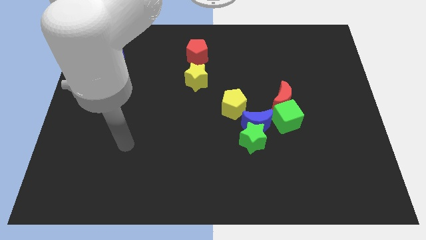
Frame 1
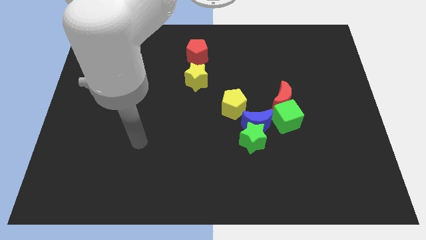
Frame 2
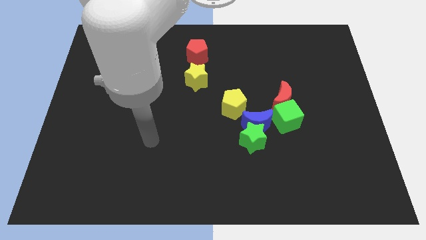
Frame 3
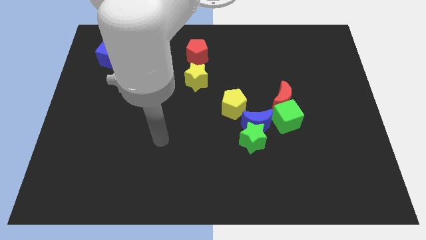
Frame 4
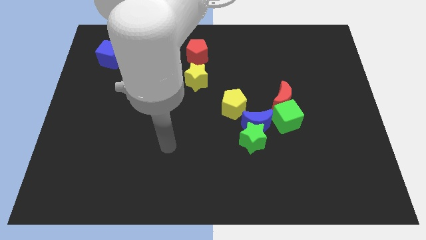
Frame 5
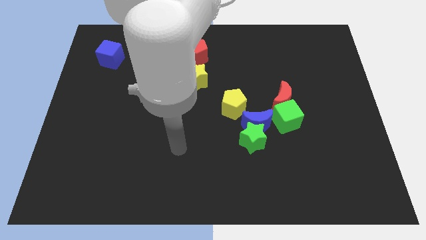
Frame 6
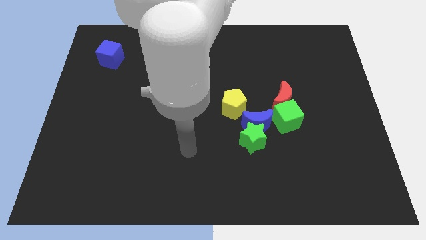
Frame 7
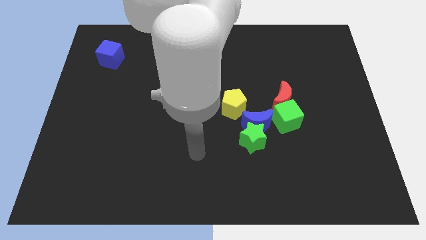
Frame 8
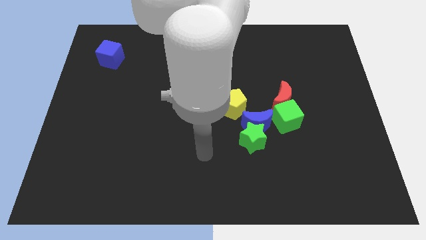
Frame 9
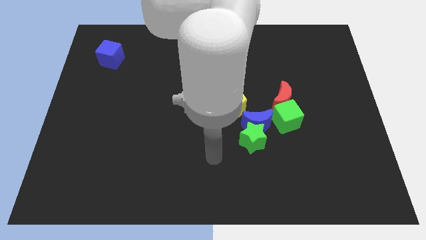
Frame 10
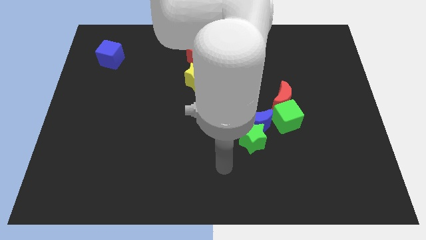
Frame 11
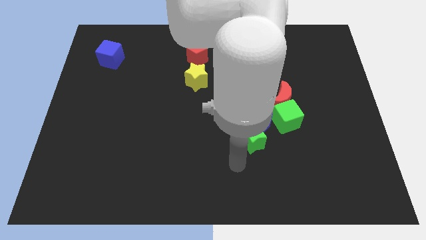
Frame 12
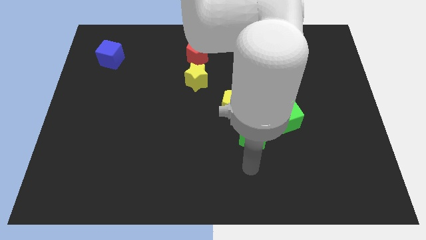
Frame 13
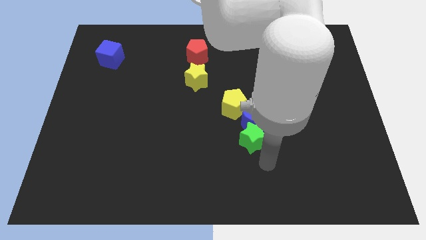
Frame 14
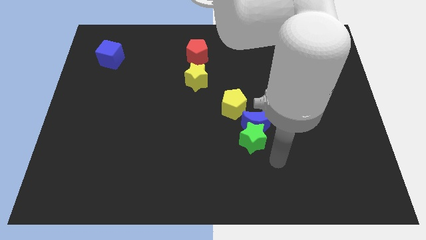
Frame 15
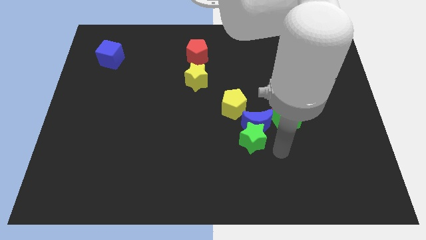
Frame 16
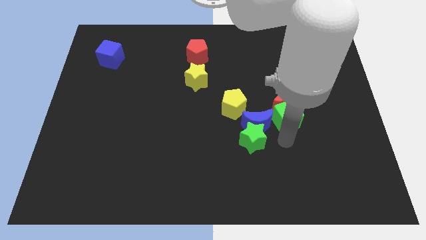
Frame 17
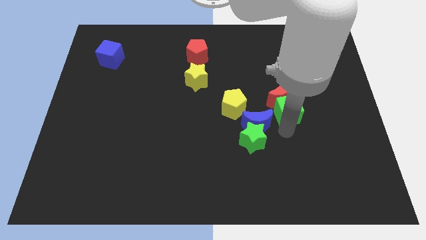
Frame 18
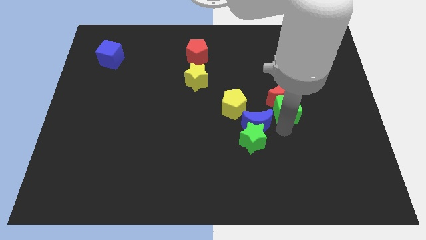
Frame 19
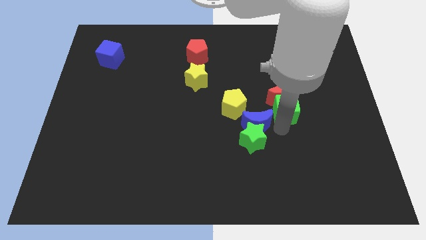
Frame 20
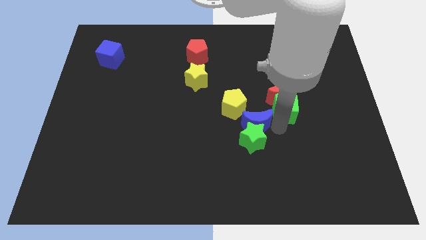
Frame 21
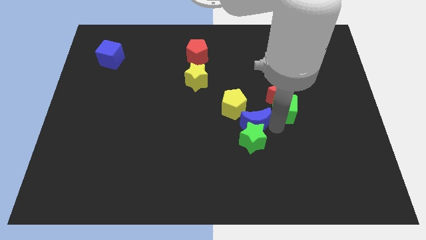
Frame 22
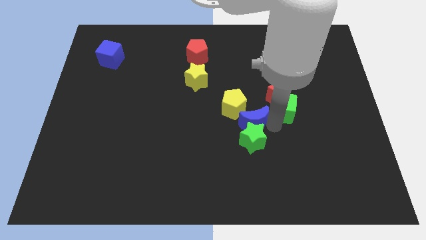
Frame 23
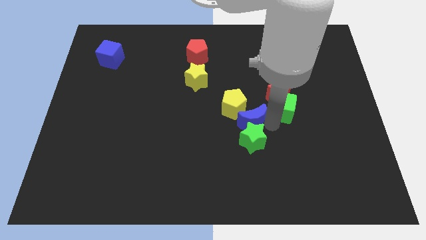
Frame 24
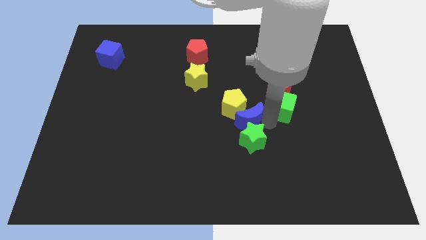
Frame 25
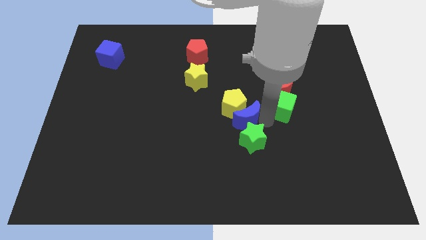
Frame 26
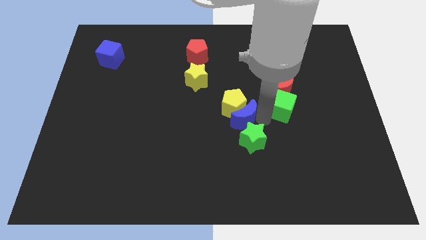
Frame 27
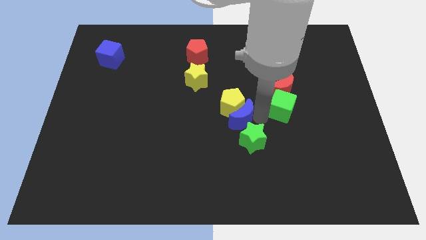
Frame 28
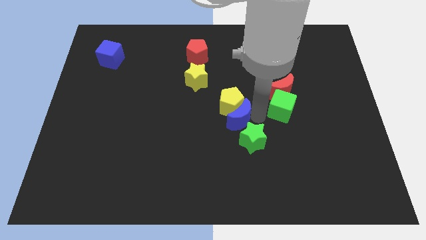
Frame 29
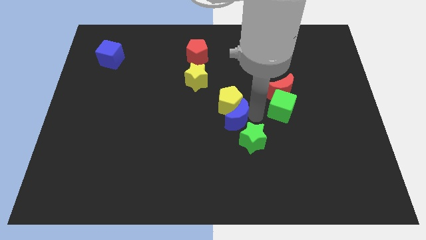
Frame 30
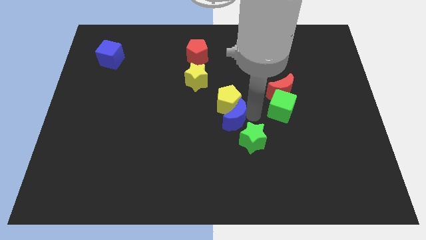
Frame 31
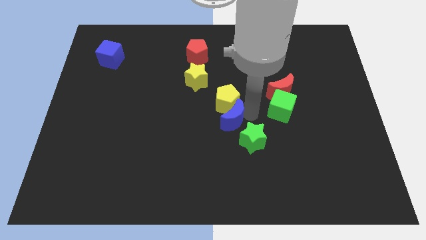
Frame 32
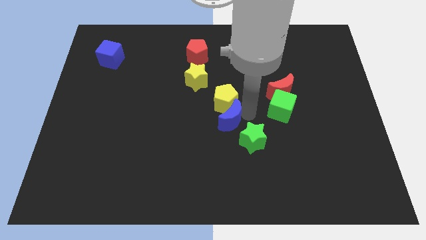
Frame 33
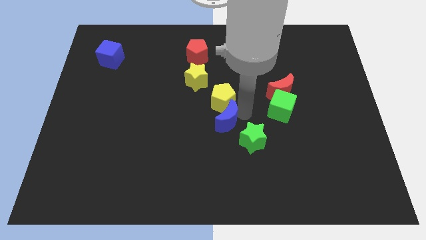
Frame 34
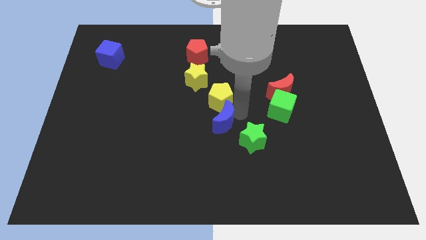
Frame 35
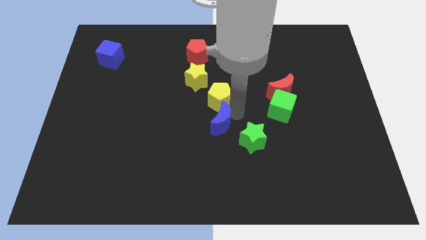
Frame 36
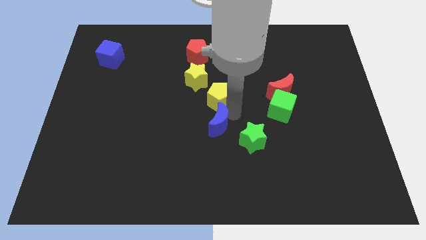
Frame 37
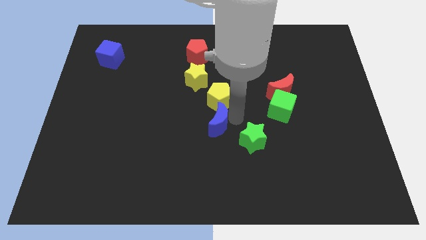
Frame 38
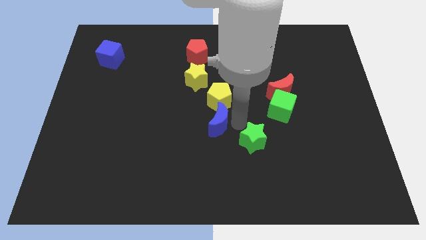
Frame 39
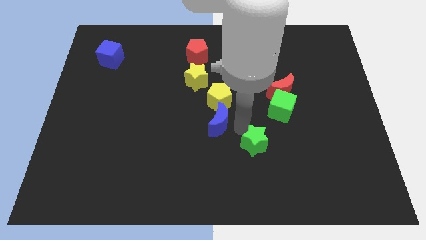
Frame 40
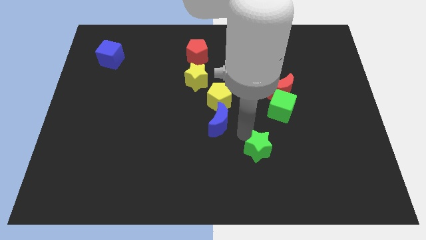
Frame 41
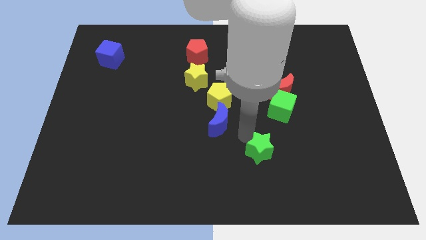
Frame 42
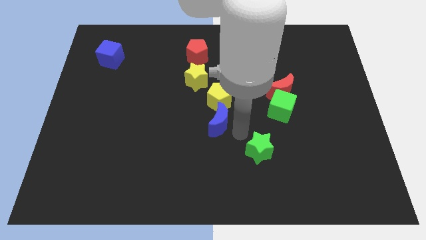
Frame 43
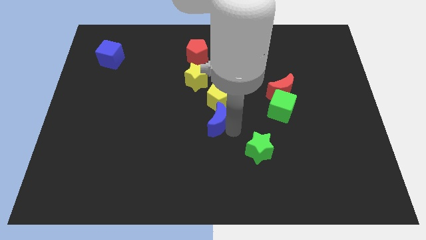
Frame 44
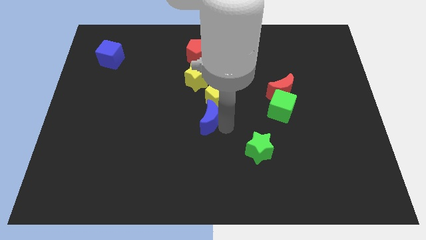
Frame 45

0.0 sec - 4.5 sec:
put the blue moon to the bottom of the yellow star

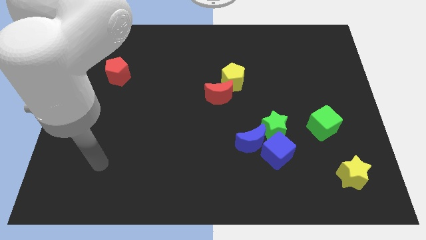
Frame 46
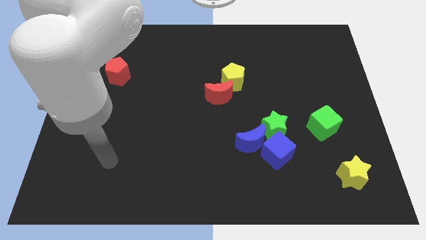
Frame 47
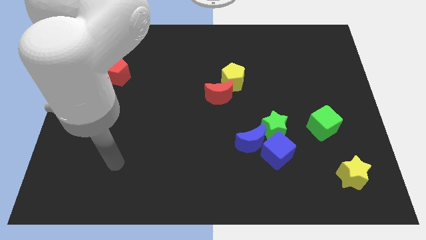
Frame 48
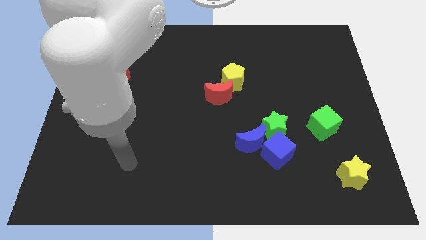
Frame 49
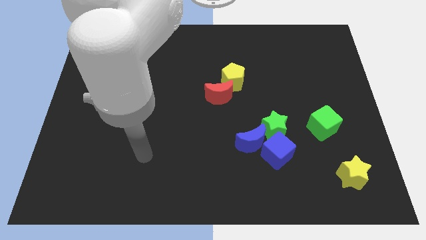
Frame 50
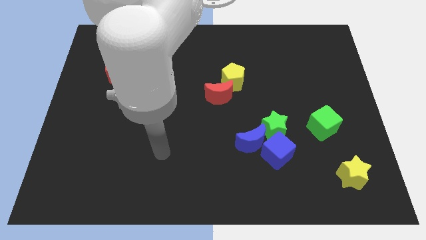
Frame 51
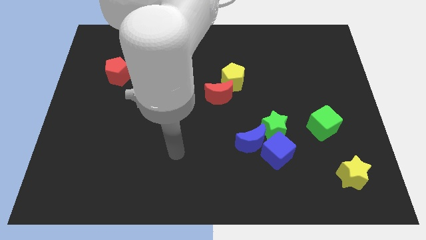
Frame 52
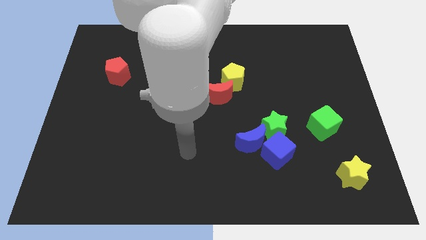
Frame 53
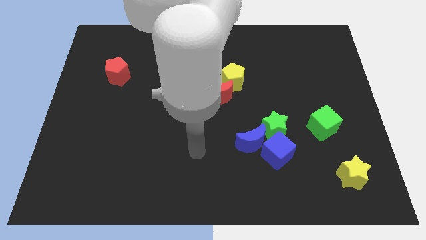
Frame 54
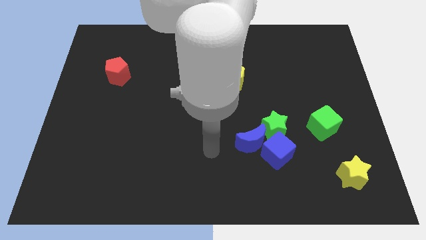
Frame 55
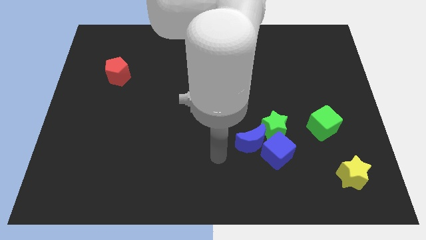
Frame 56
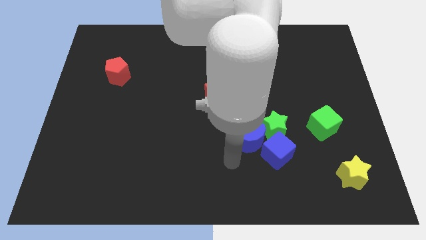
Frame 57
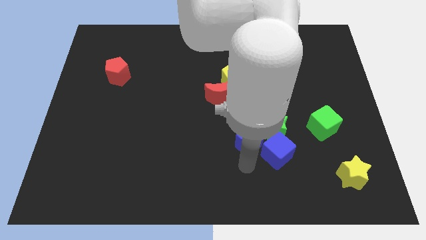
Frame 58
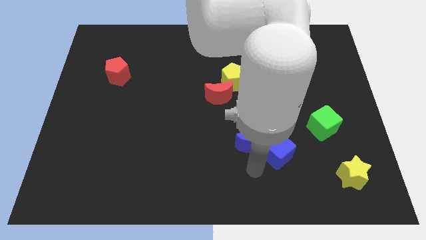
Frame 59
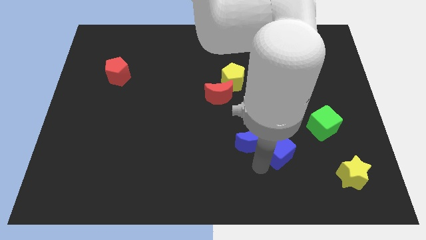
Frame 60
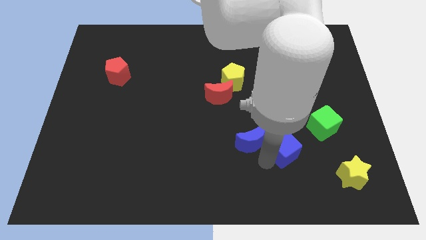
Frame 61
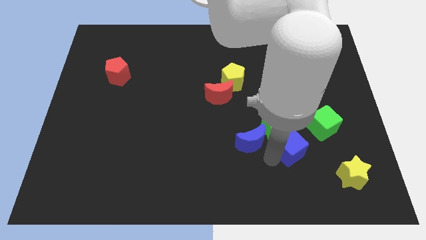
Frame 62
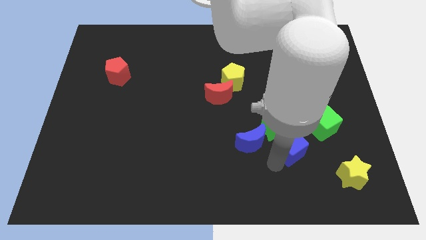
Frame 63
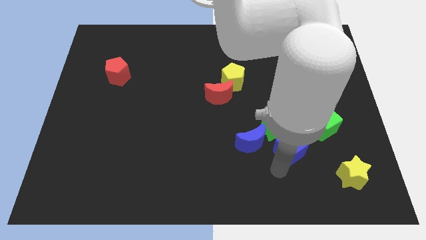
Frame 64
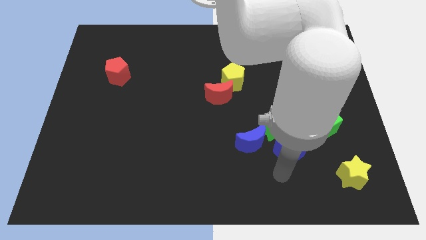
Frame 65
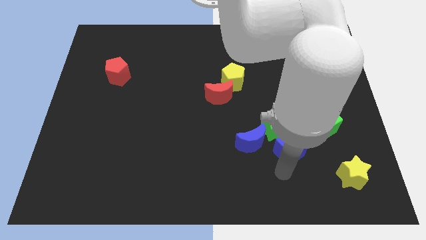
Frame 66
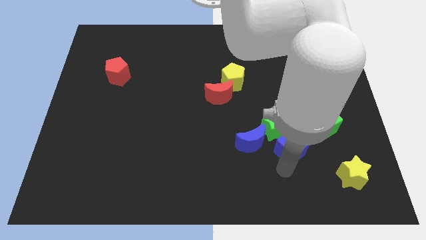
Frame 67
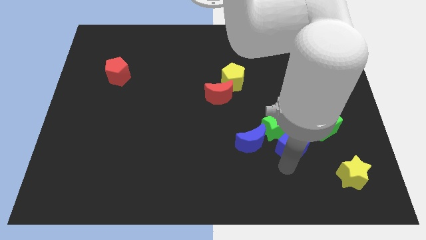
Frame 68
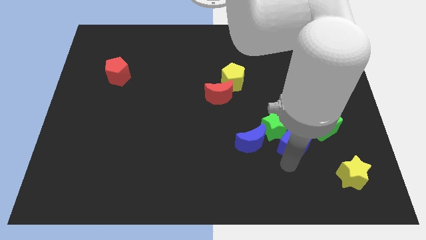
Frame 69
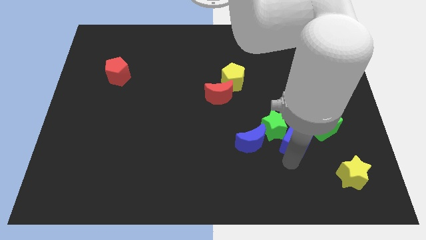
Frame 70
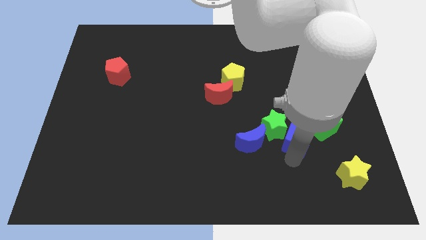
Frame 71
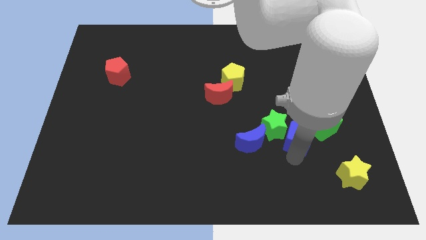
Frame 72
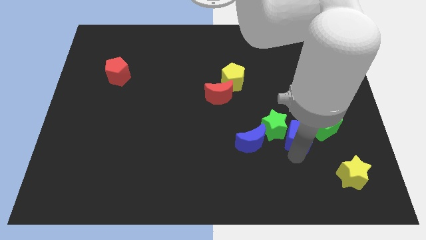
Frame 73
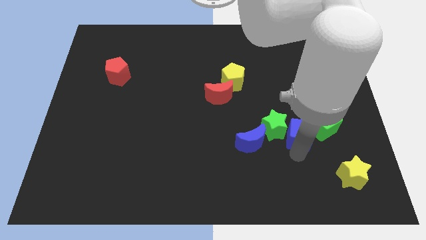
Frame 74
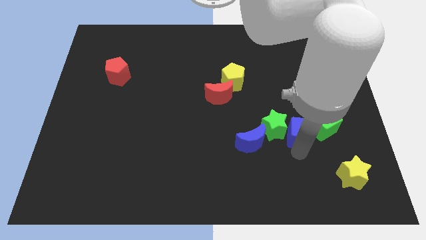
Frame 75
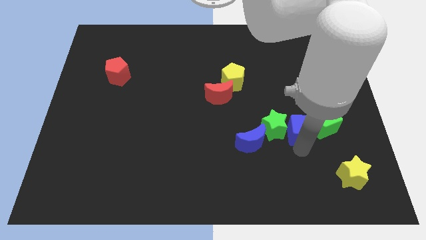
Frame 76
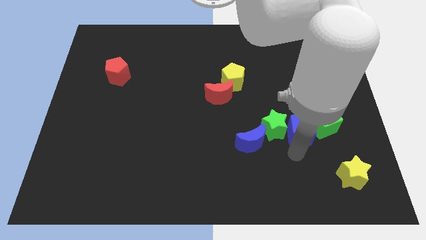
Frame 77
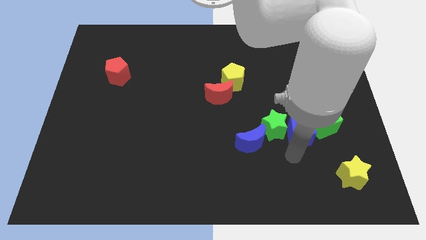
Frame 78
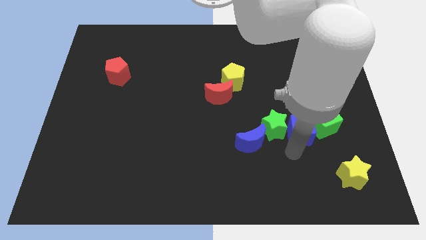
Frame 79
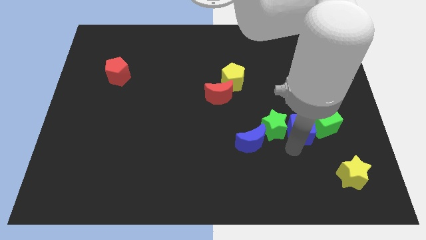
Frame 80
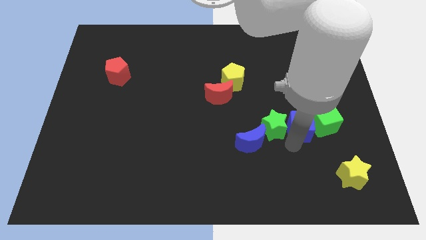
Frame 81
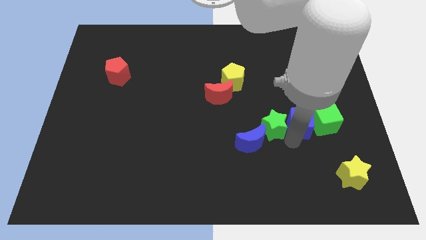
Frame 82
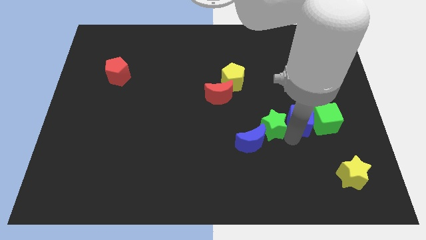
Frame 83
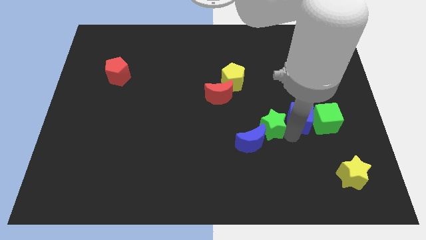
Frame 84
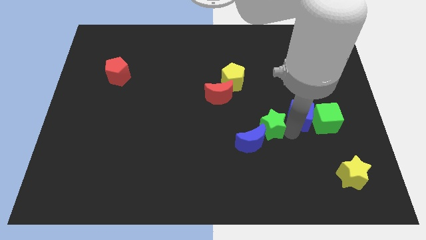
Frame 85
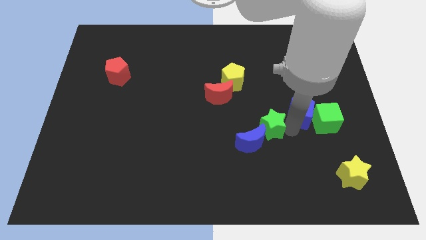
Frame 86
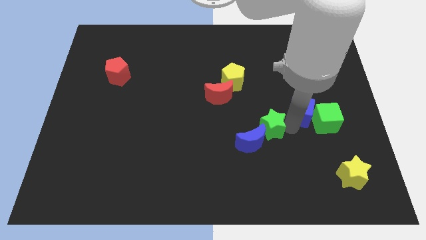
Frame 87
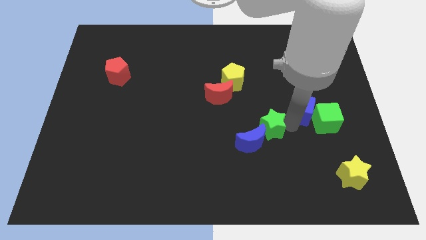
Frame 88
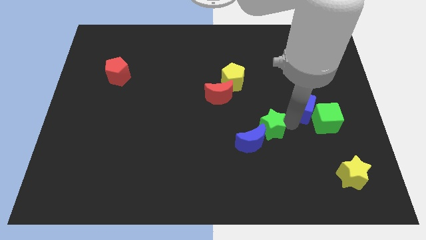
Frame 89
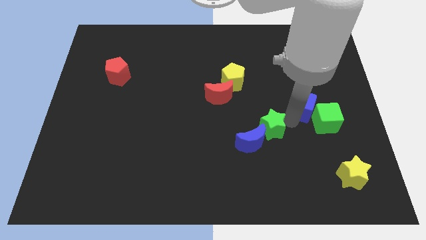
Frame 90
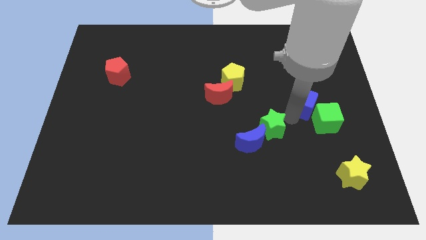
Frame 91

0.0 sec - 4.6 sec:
push the blue cube to the top of the green cube
